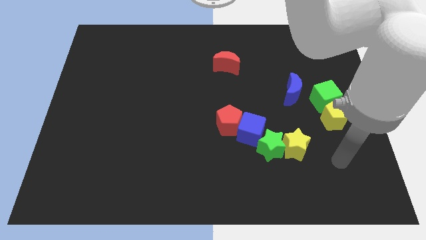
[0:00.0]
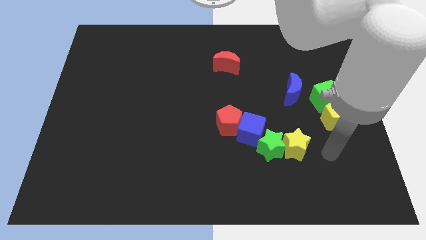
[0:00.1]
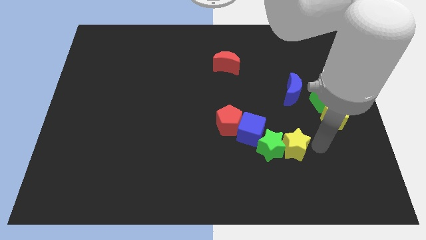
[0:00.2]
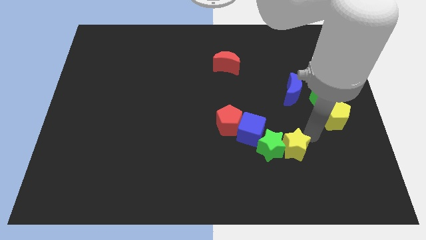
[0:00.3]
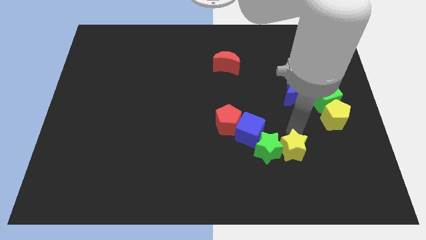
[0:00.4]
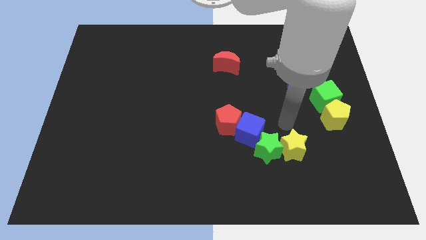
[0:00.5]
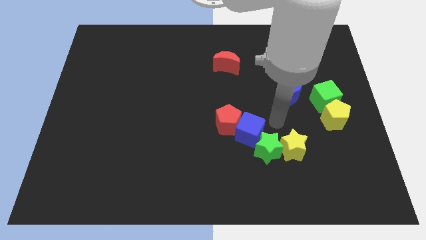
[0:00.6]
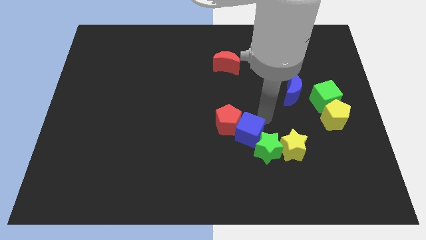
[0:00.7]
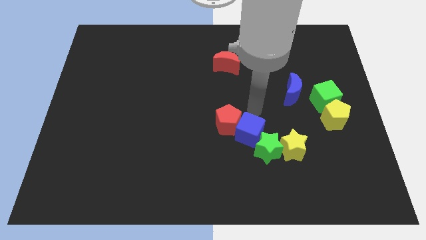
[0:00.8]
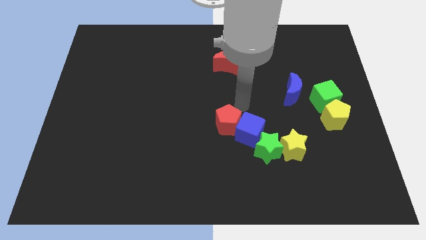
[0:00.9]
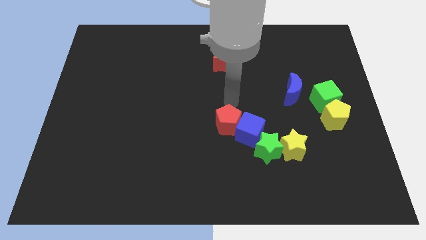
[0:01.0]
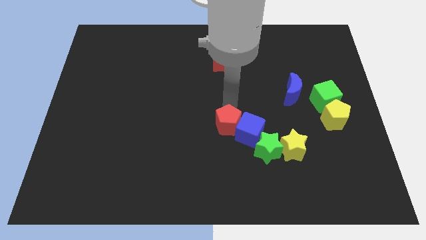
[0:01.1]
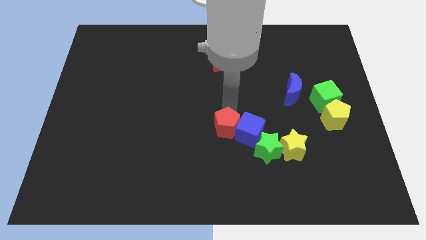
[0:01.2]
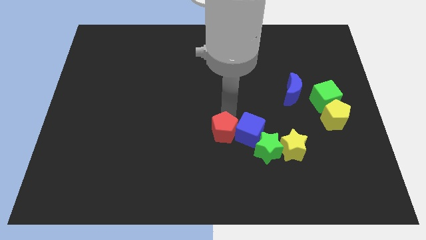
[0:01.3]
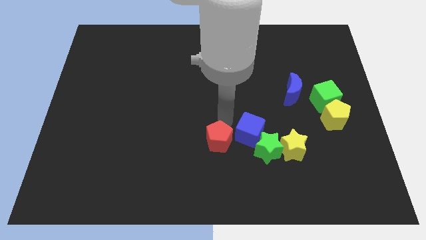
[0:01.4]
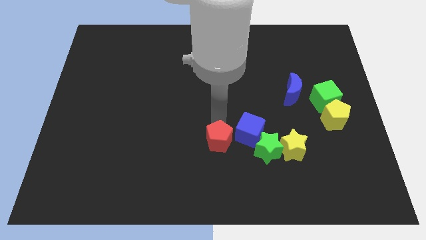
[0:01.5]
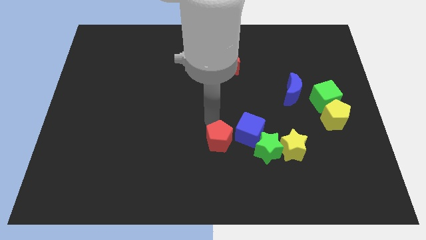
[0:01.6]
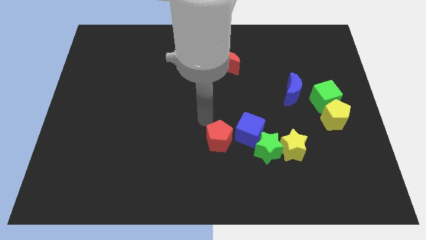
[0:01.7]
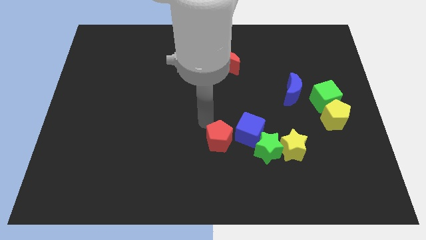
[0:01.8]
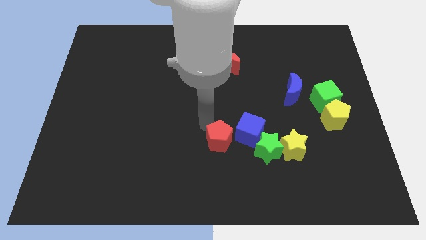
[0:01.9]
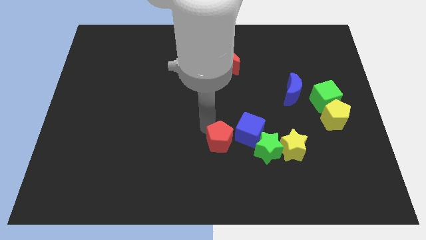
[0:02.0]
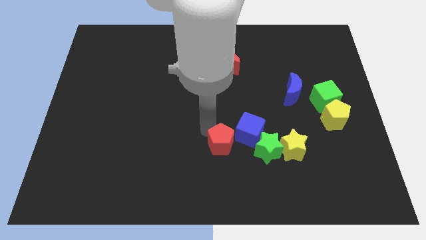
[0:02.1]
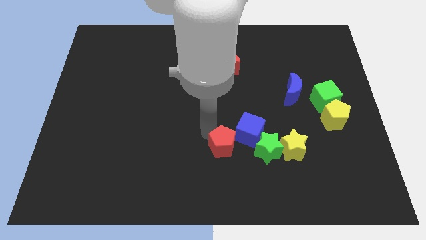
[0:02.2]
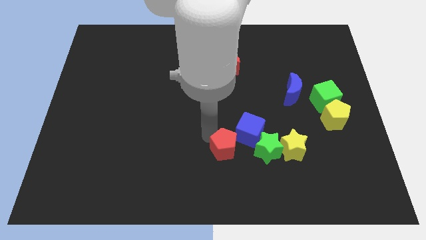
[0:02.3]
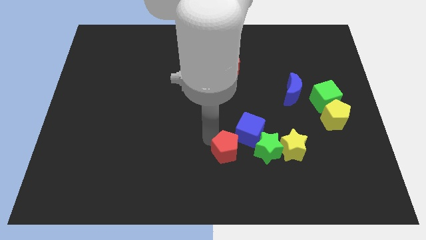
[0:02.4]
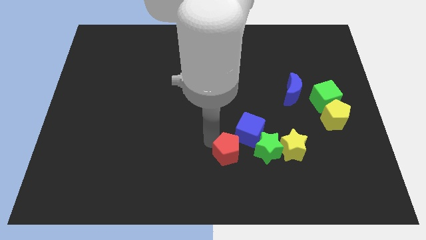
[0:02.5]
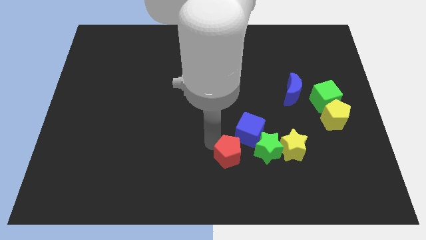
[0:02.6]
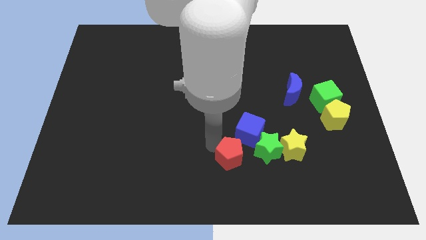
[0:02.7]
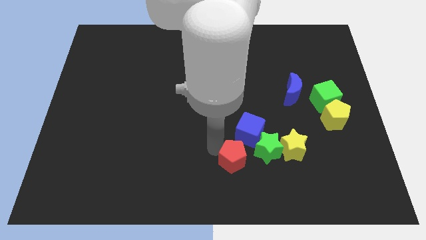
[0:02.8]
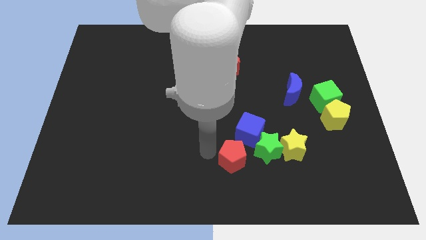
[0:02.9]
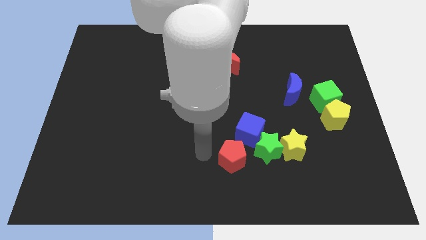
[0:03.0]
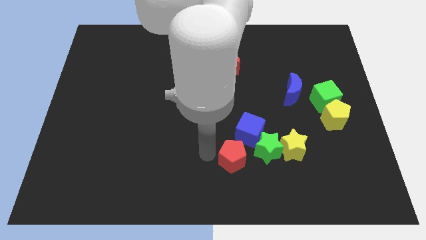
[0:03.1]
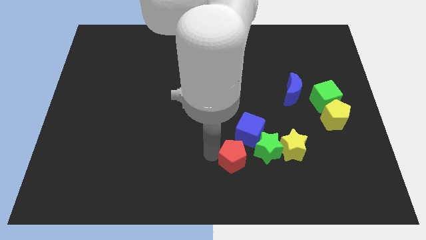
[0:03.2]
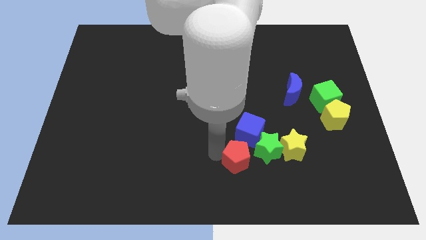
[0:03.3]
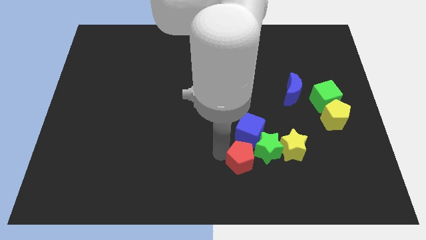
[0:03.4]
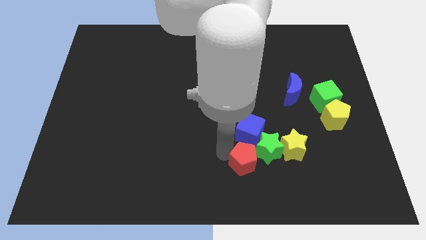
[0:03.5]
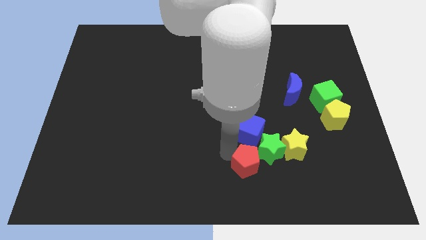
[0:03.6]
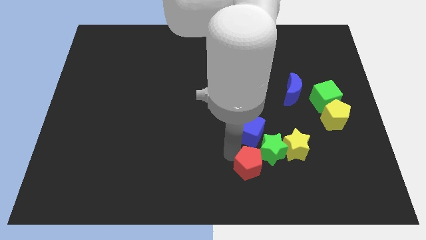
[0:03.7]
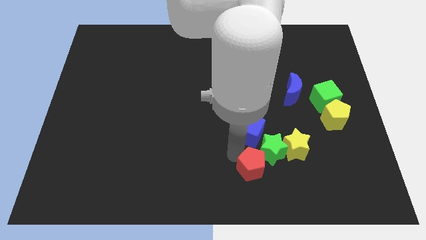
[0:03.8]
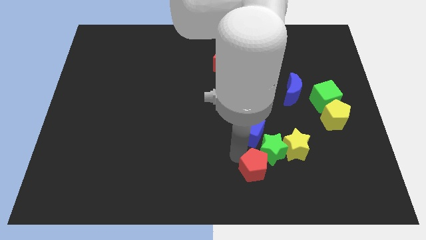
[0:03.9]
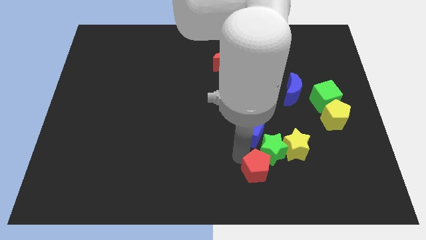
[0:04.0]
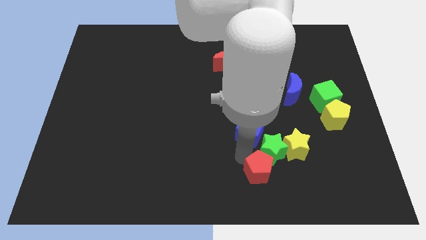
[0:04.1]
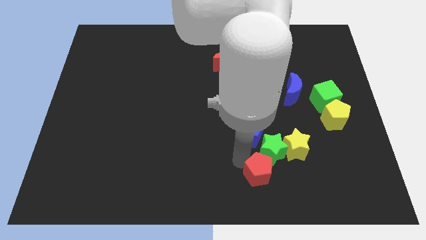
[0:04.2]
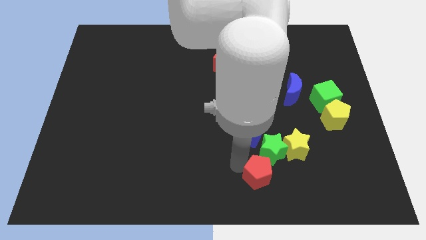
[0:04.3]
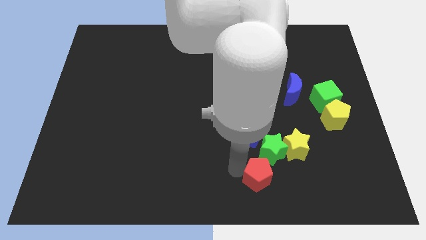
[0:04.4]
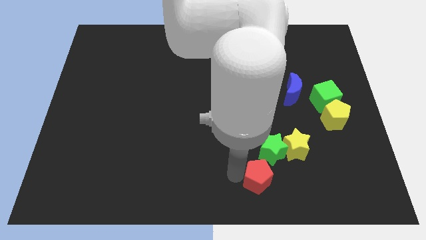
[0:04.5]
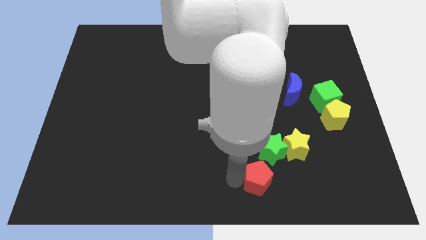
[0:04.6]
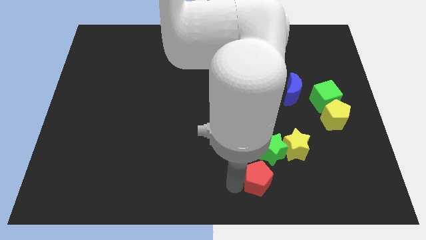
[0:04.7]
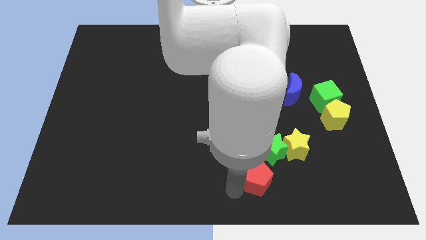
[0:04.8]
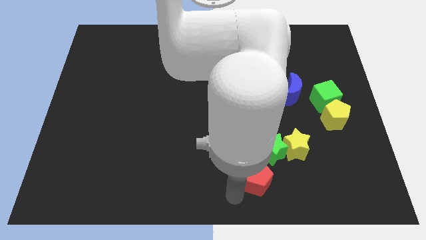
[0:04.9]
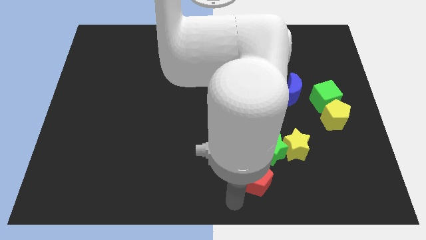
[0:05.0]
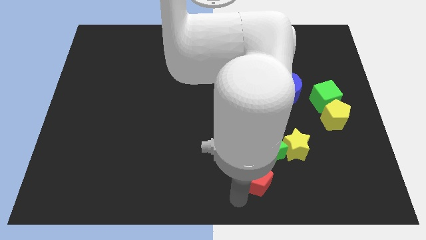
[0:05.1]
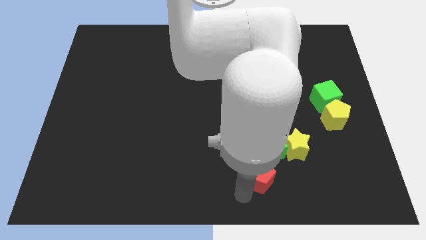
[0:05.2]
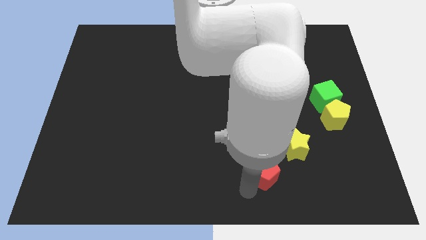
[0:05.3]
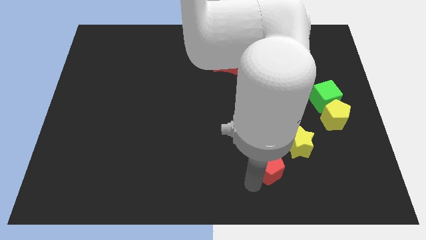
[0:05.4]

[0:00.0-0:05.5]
move the red pentagon to the bottom right side of the green star

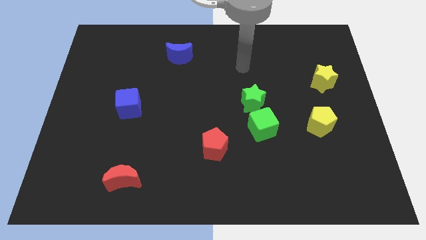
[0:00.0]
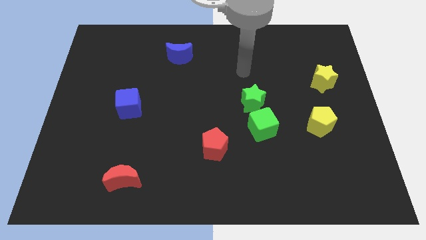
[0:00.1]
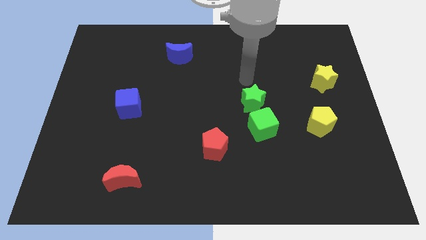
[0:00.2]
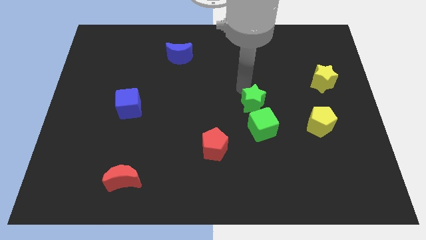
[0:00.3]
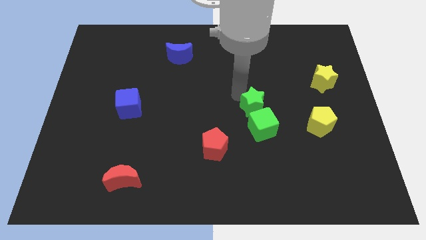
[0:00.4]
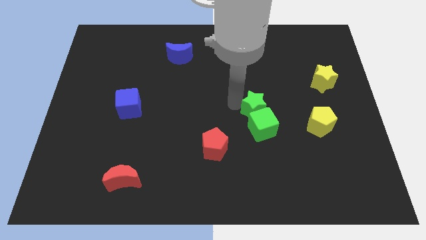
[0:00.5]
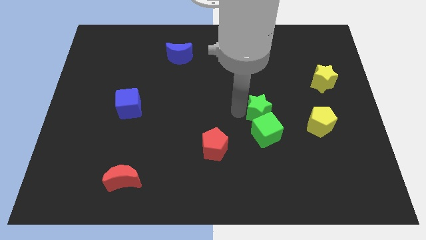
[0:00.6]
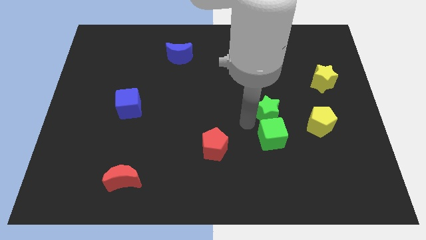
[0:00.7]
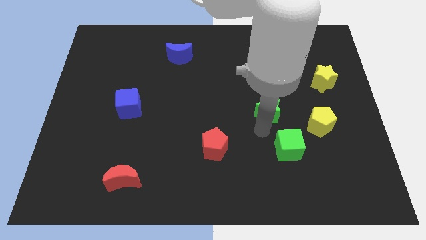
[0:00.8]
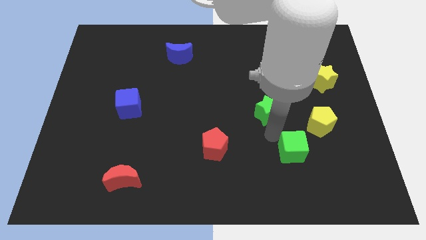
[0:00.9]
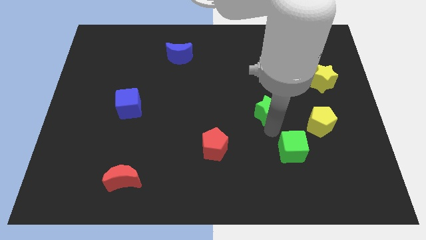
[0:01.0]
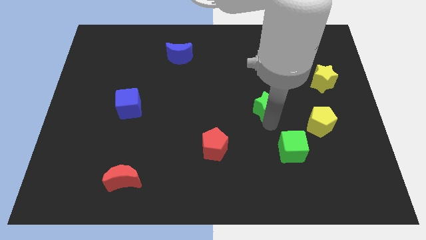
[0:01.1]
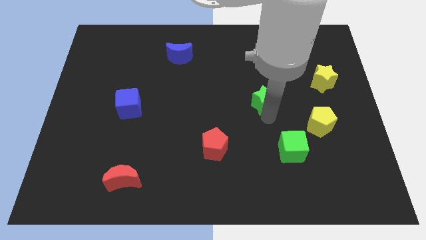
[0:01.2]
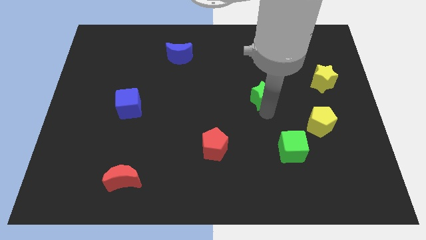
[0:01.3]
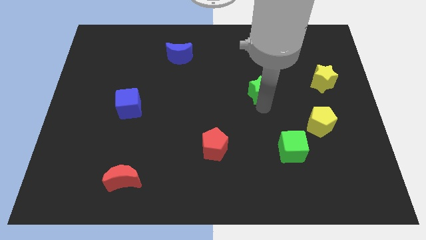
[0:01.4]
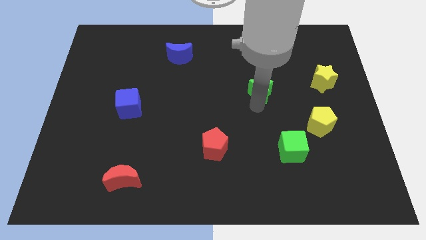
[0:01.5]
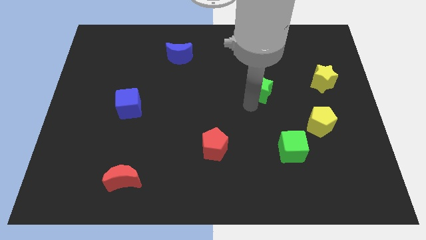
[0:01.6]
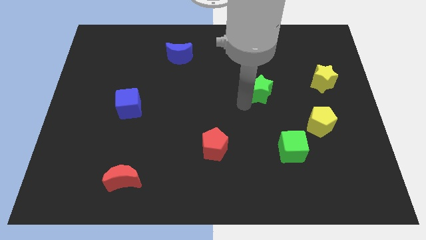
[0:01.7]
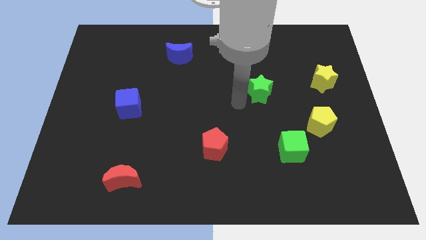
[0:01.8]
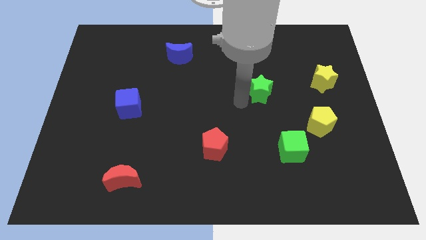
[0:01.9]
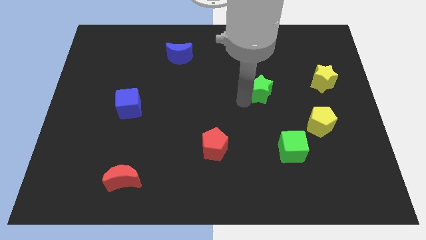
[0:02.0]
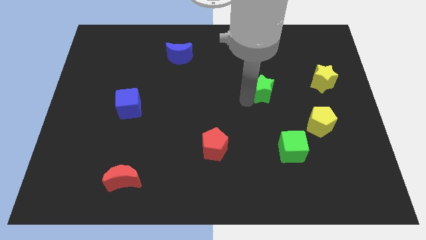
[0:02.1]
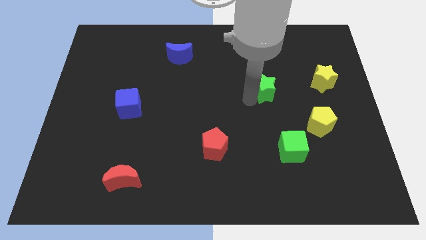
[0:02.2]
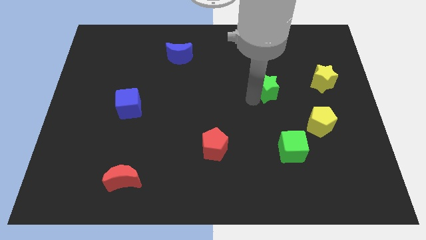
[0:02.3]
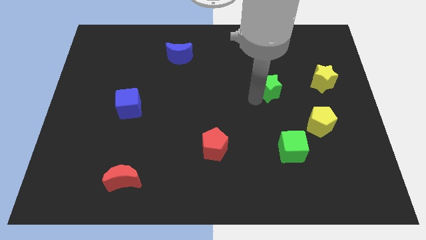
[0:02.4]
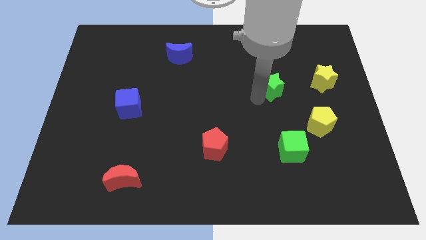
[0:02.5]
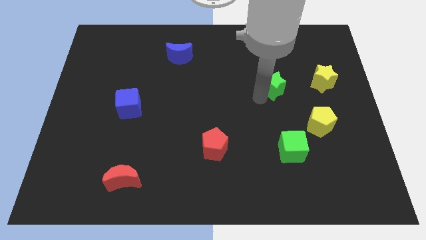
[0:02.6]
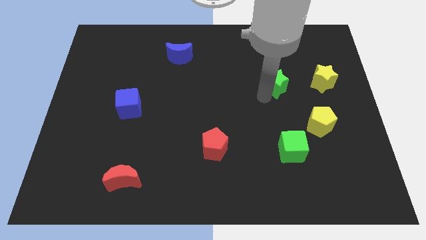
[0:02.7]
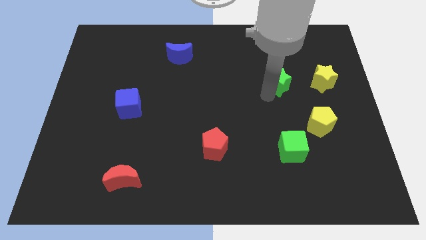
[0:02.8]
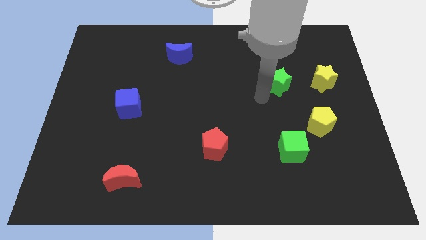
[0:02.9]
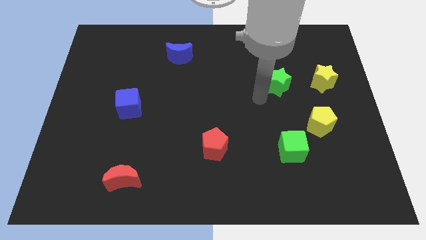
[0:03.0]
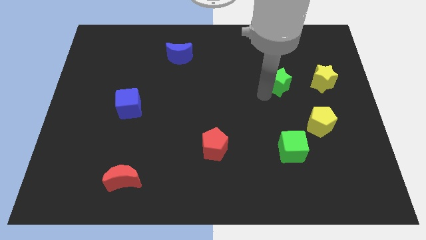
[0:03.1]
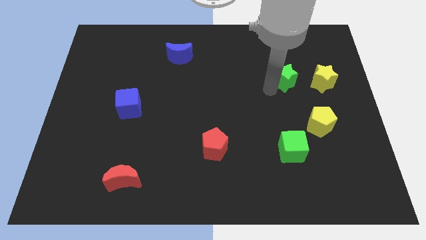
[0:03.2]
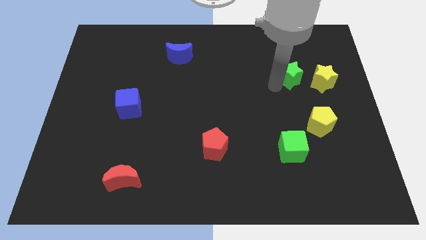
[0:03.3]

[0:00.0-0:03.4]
slide the green star diagonally up and to the left of the yellow star
